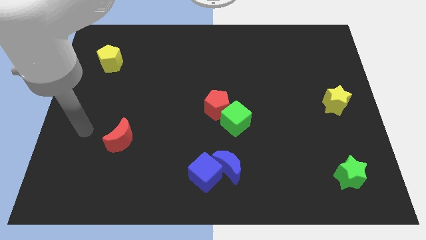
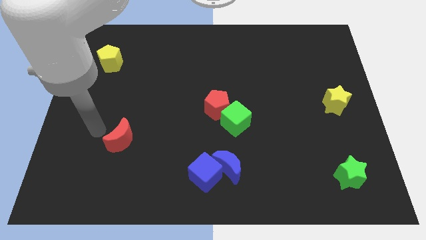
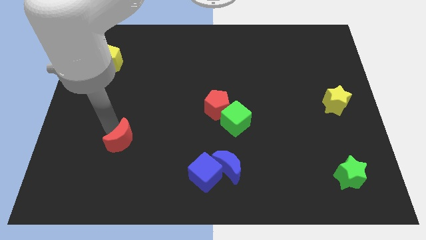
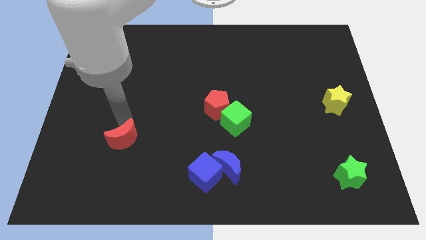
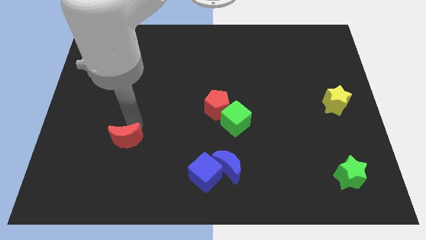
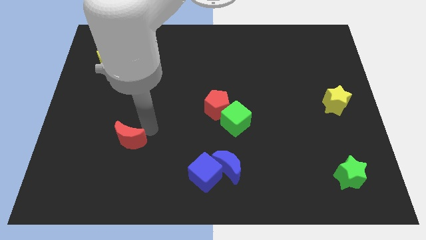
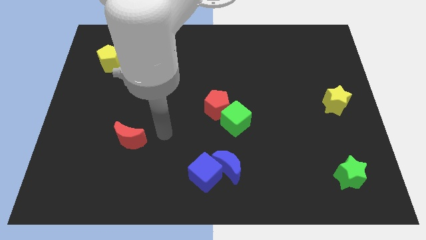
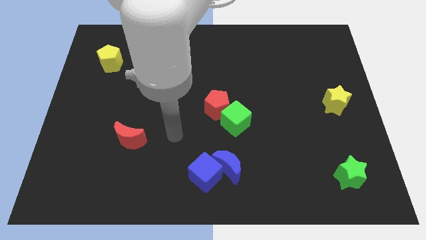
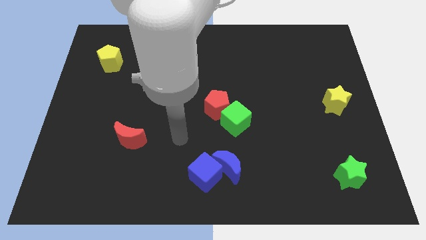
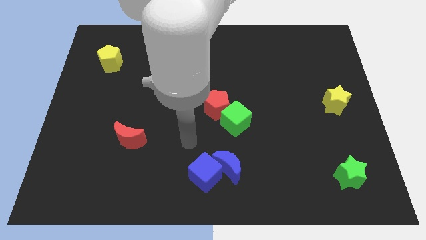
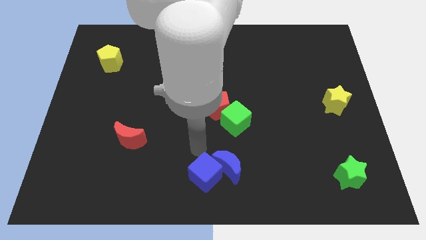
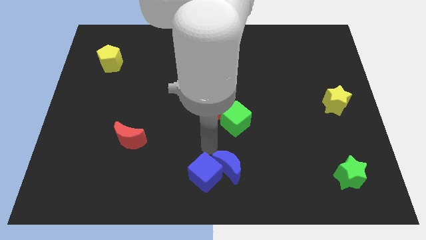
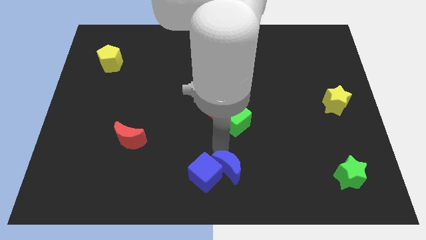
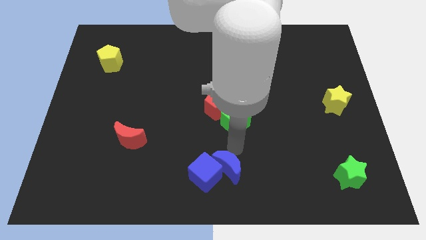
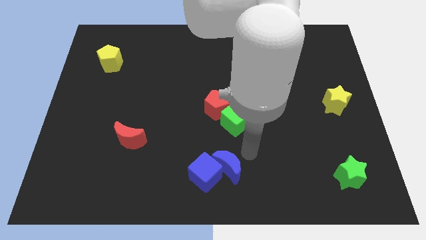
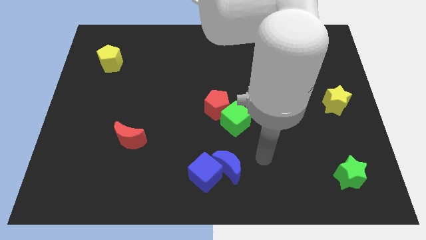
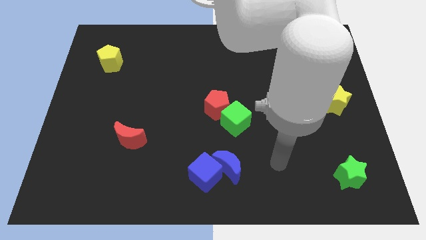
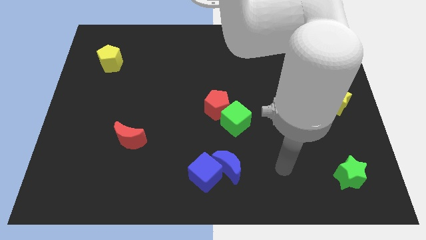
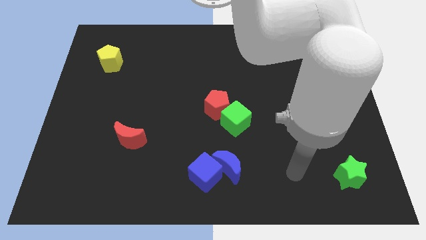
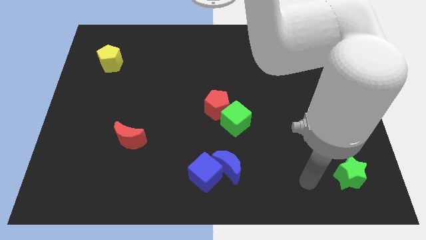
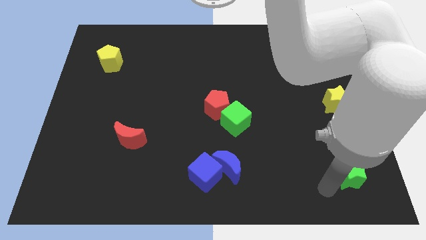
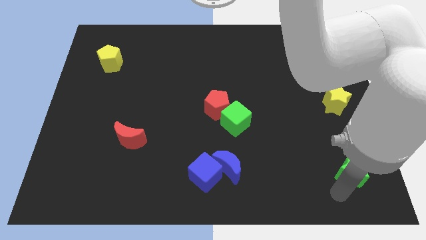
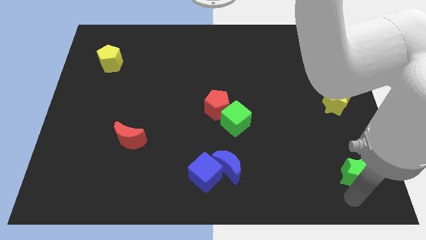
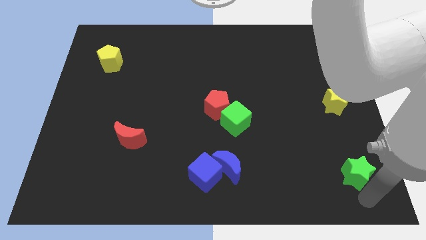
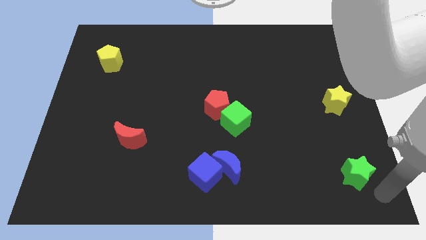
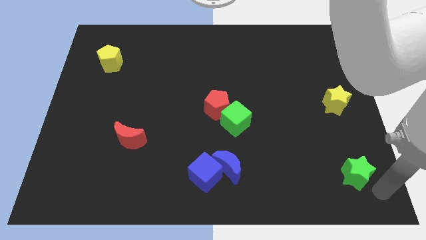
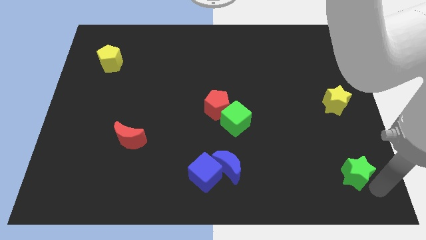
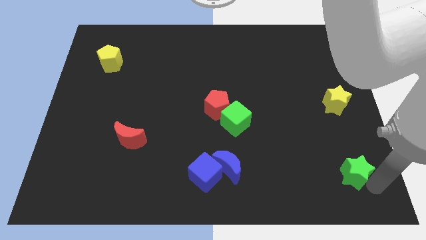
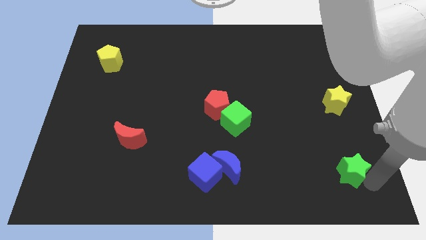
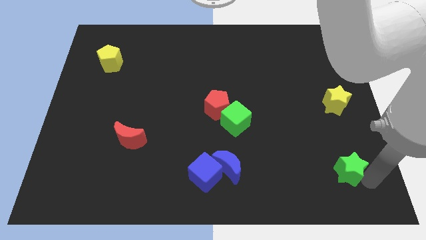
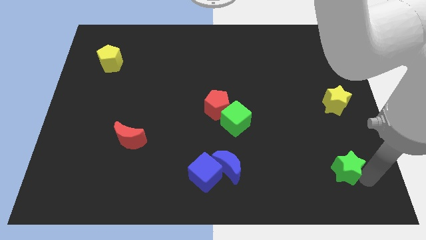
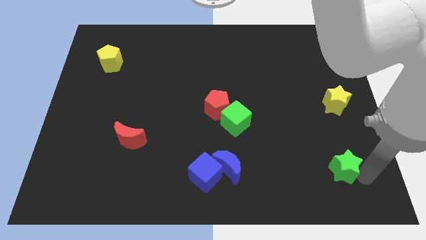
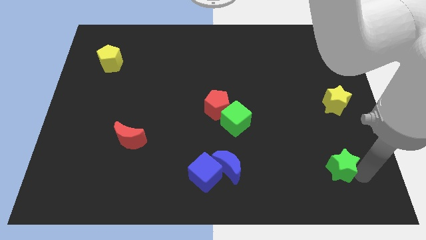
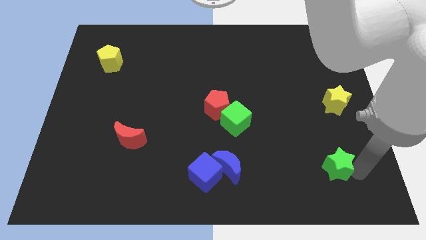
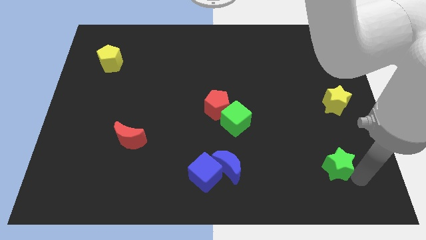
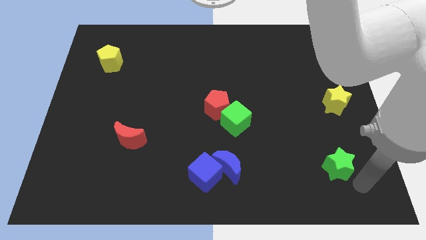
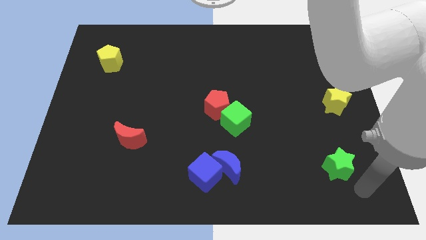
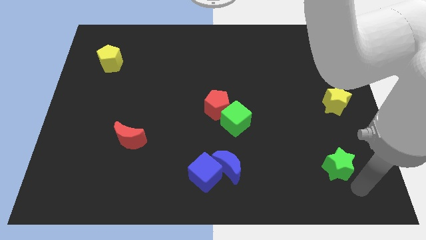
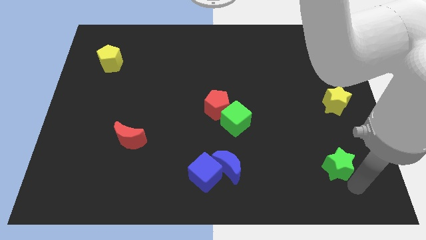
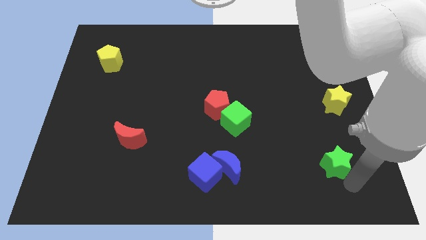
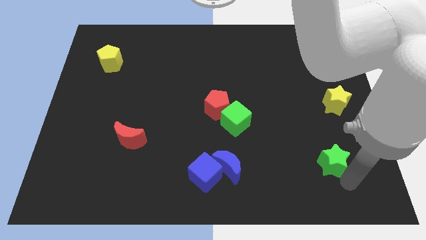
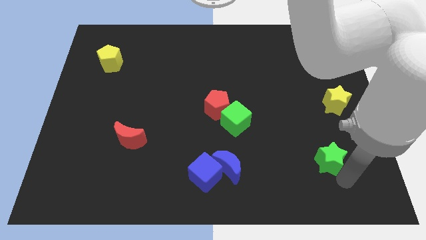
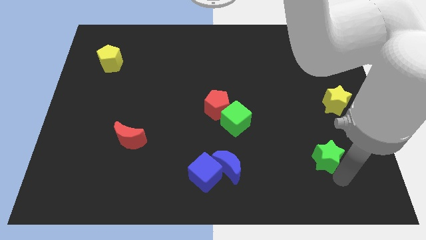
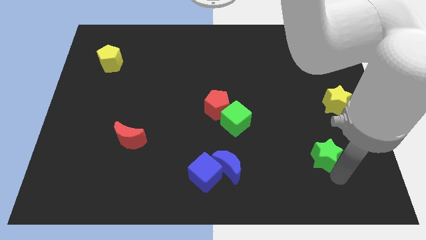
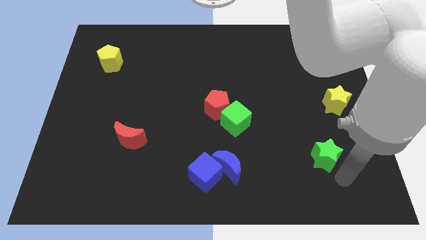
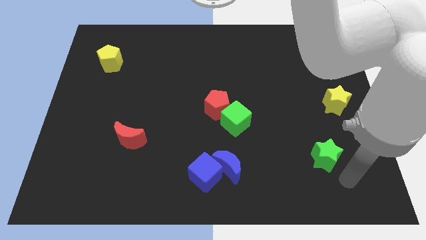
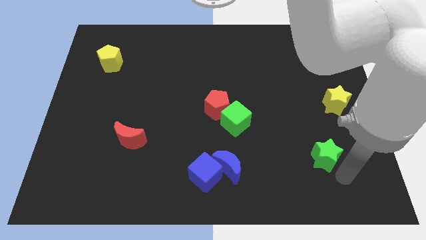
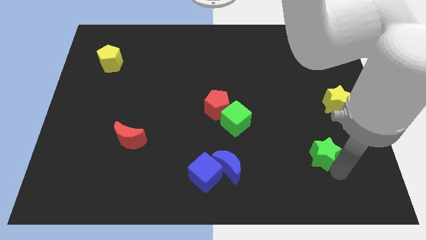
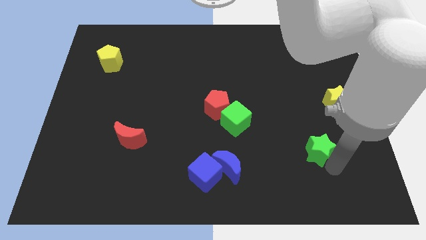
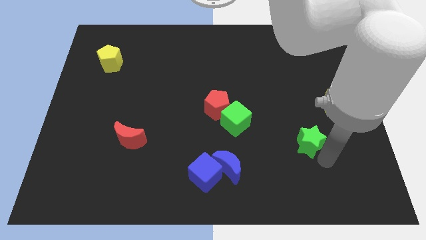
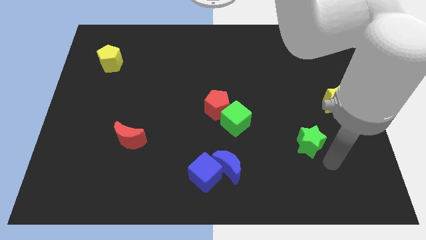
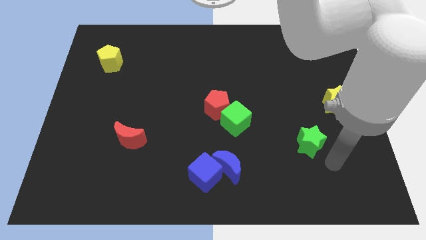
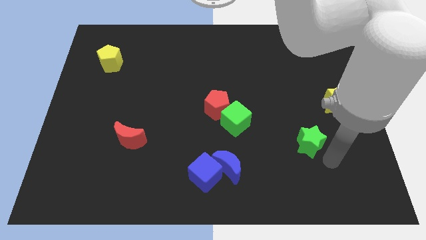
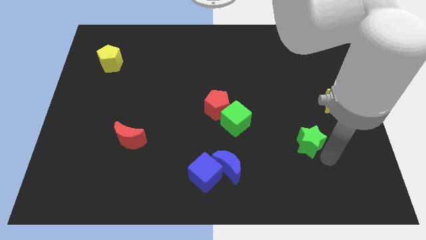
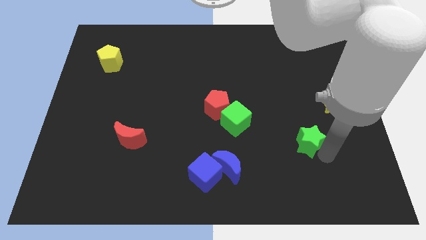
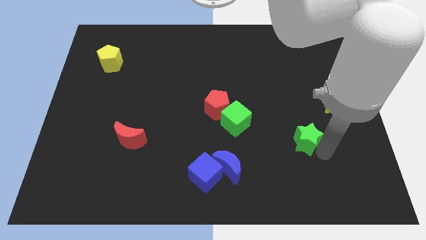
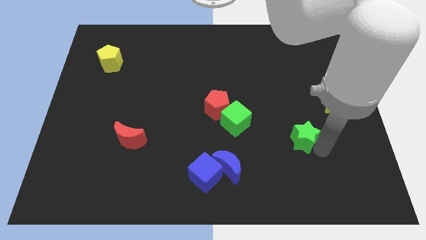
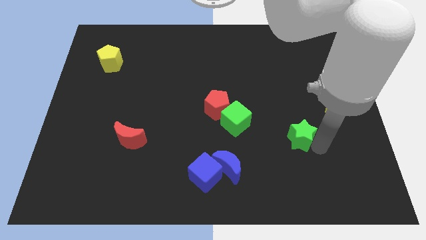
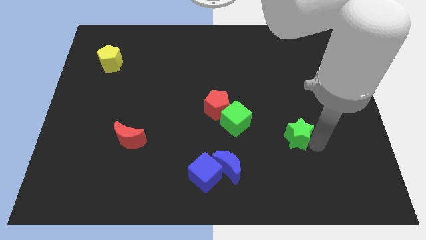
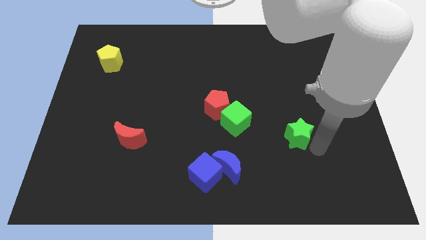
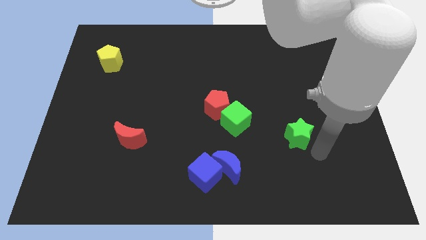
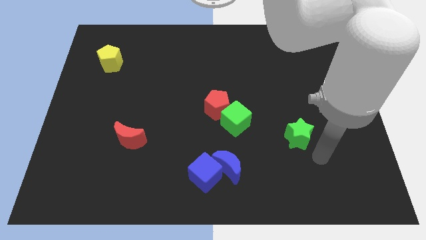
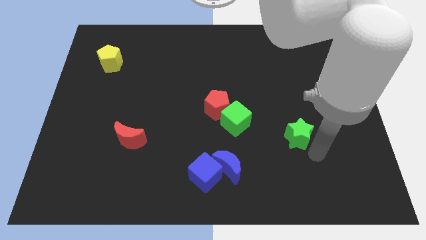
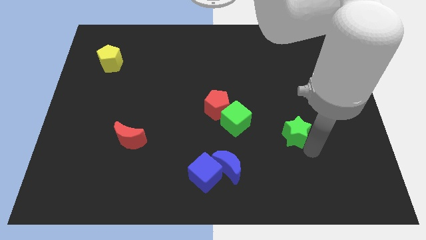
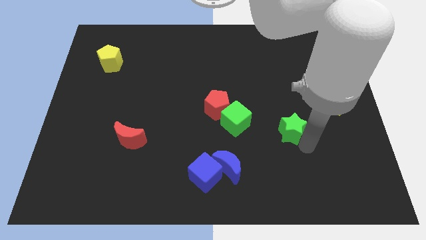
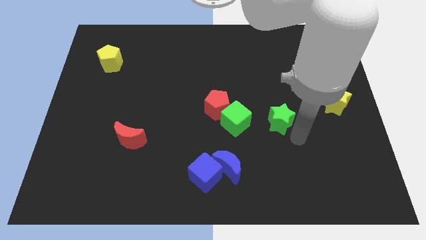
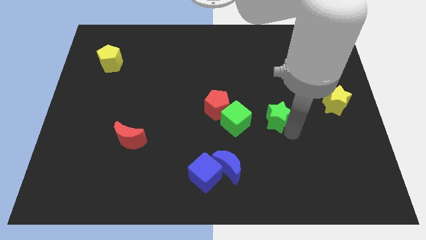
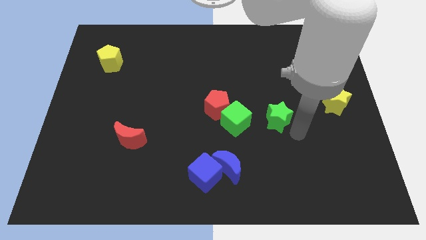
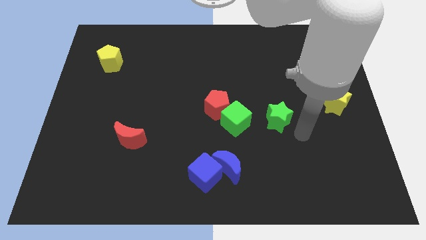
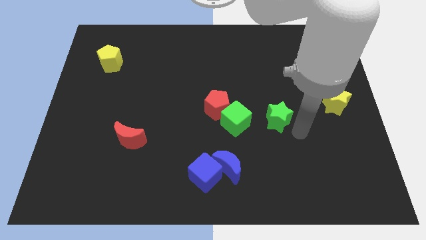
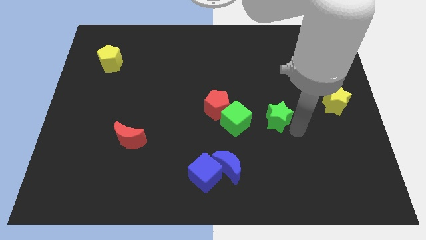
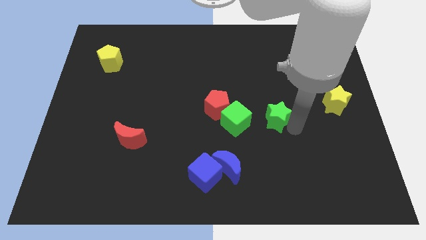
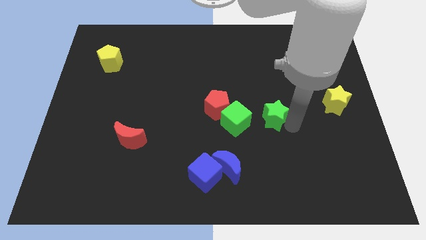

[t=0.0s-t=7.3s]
slide the green star up and then to the left

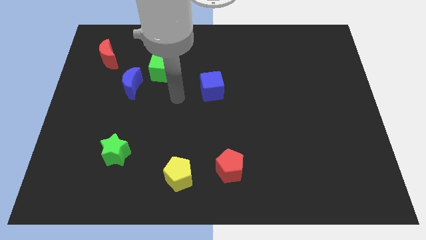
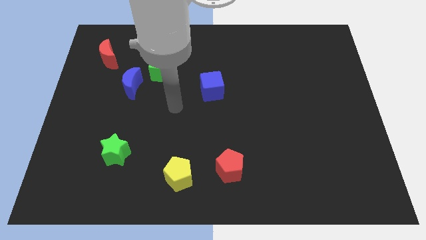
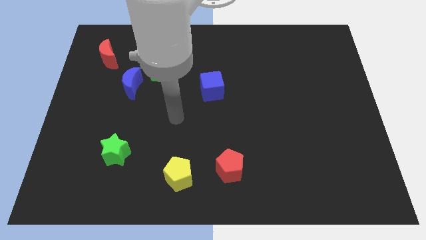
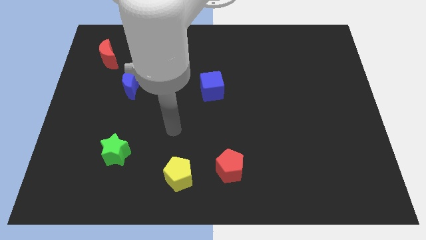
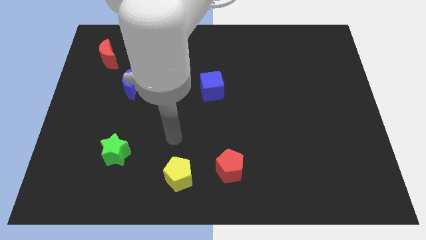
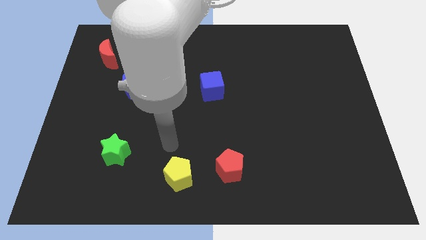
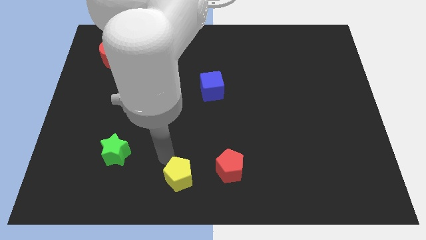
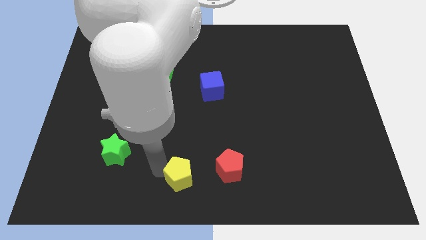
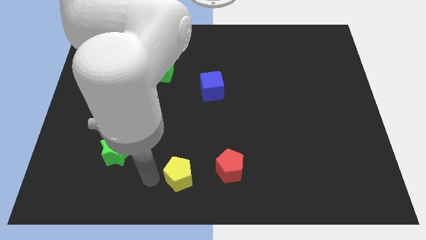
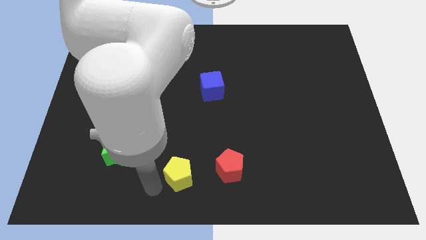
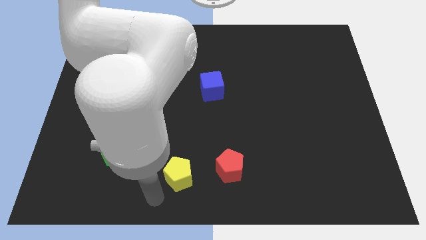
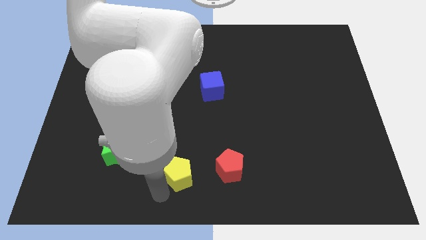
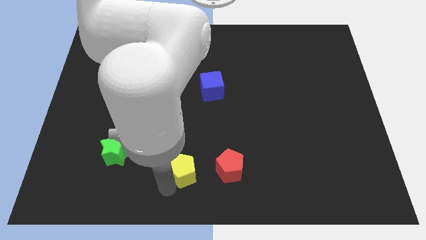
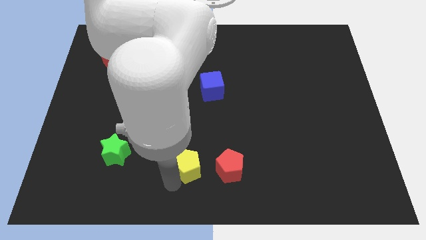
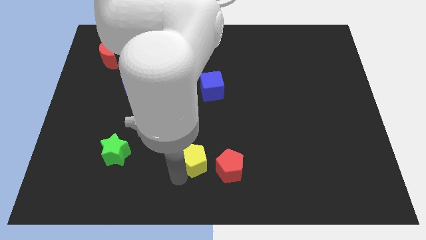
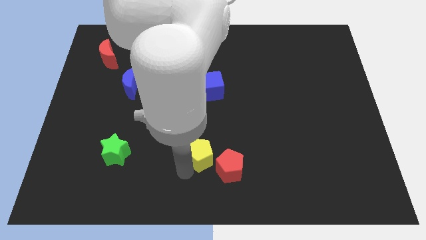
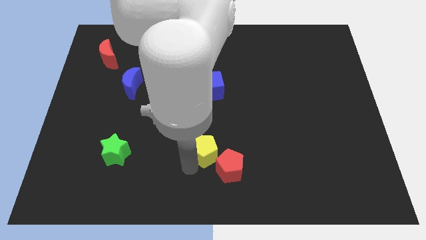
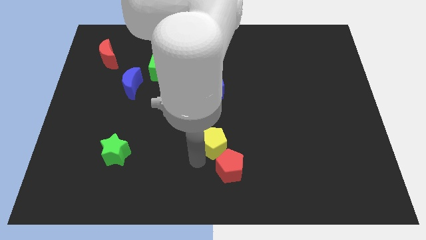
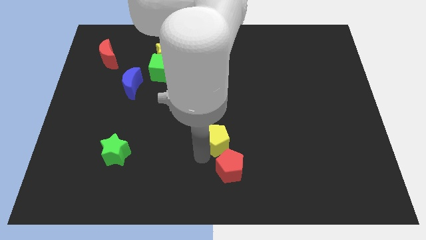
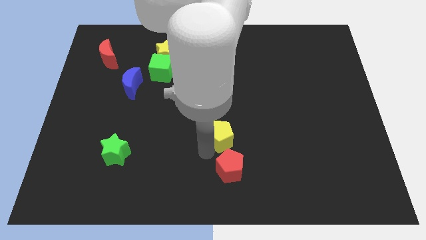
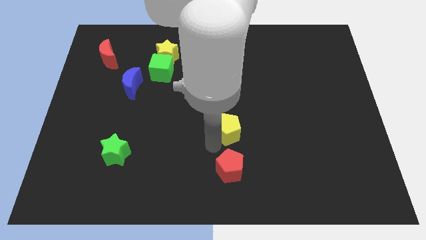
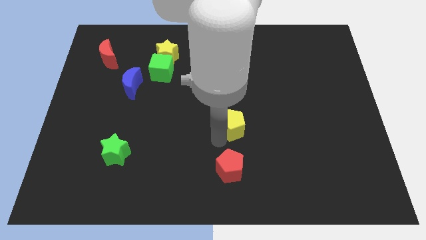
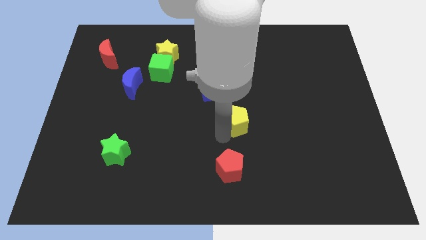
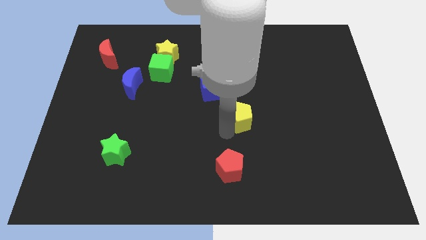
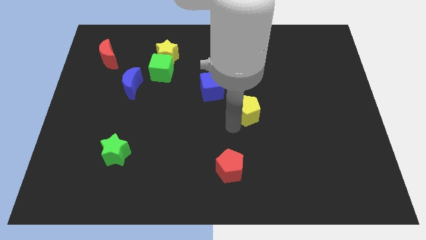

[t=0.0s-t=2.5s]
push the yellow pentagon up and right
